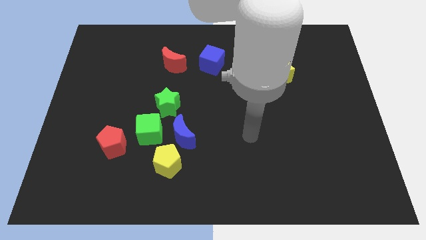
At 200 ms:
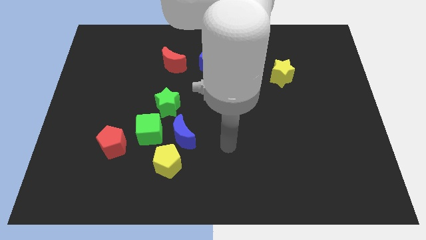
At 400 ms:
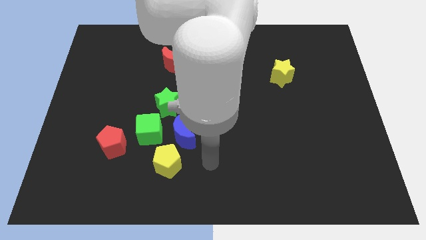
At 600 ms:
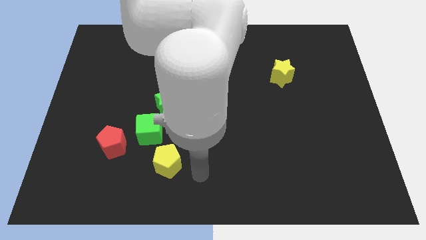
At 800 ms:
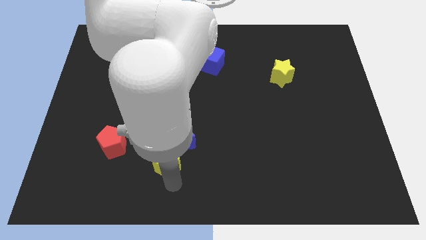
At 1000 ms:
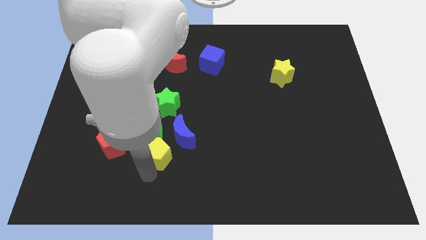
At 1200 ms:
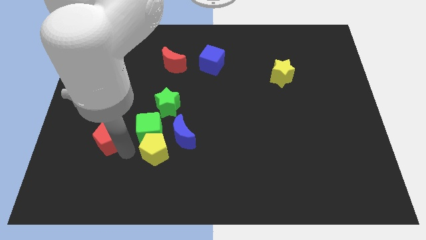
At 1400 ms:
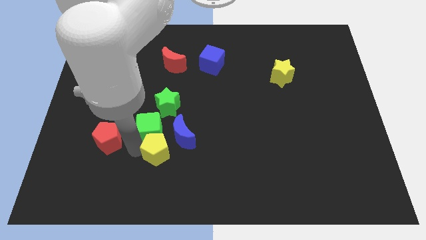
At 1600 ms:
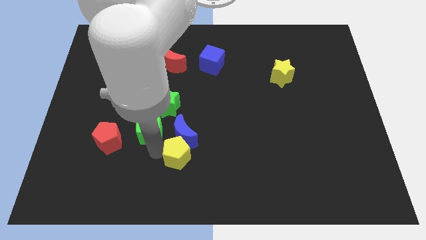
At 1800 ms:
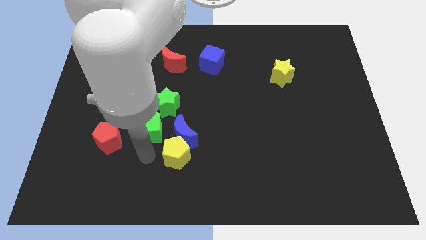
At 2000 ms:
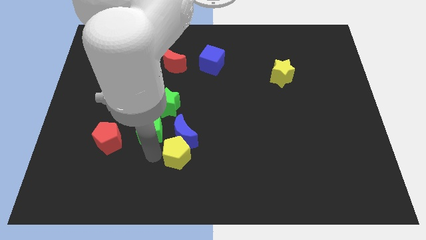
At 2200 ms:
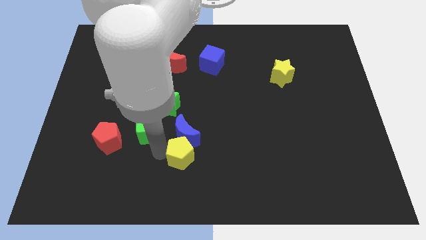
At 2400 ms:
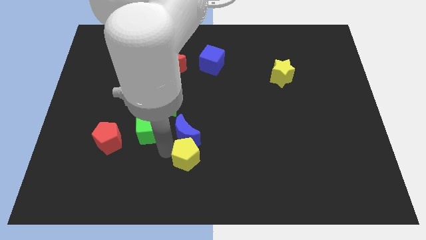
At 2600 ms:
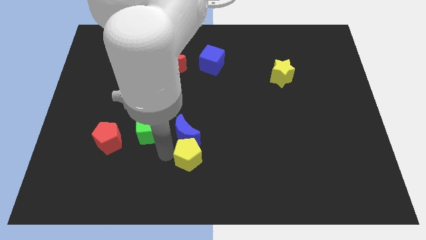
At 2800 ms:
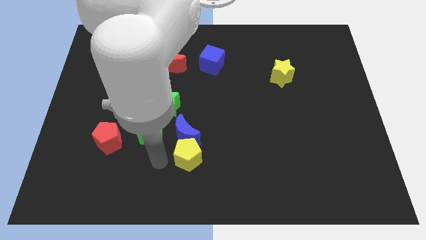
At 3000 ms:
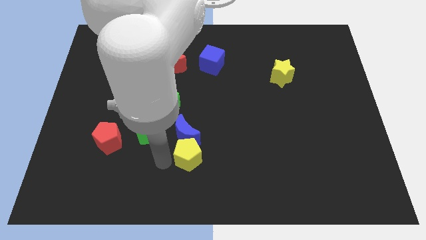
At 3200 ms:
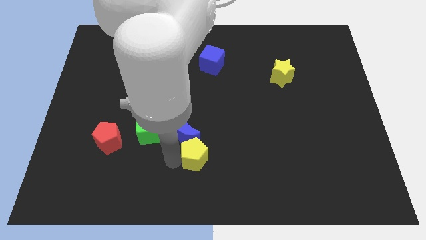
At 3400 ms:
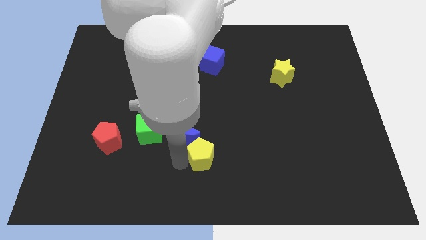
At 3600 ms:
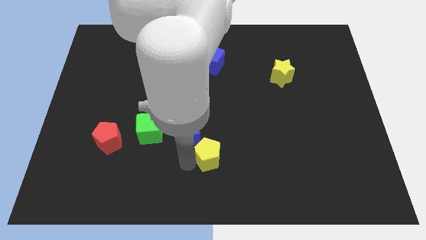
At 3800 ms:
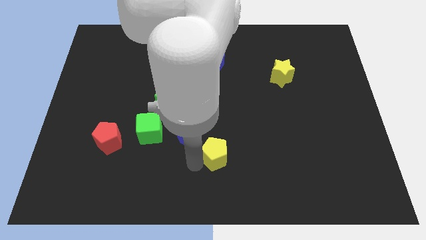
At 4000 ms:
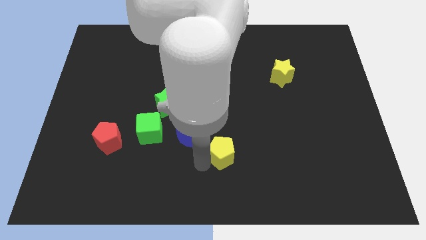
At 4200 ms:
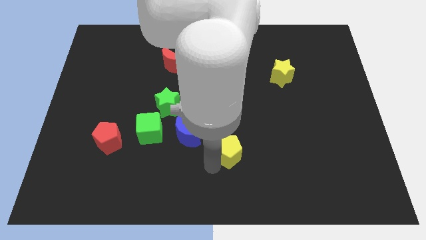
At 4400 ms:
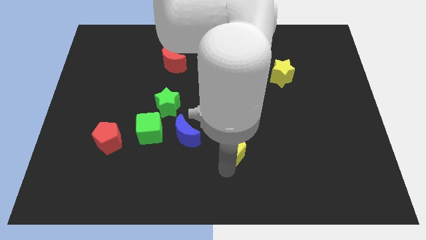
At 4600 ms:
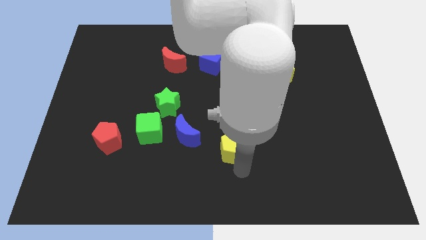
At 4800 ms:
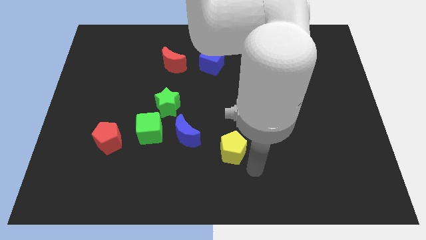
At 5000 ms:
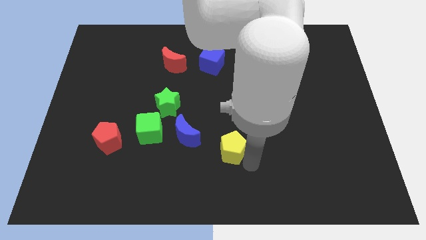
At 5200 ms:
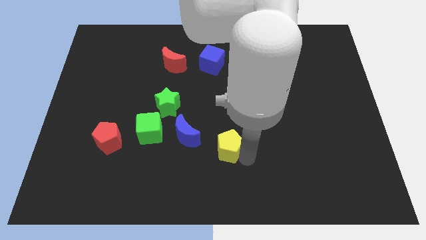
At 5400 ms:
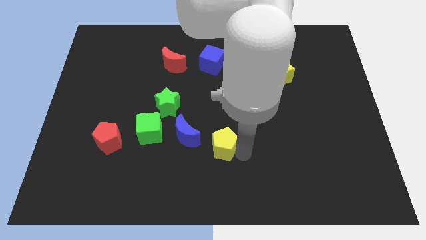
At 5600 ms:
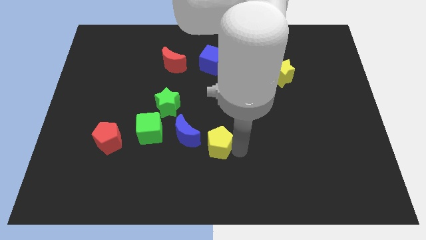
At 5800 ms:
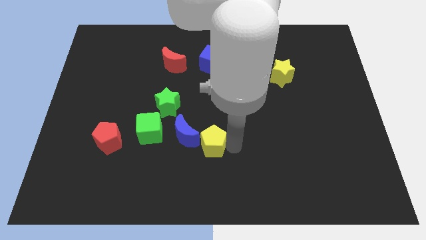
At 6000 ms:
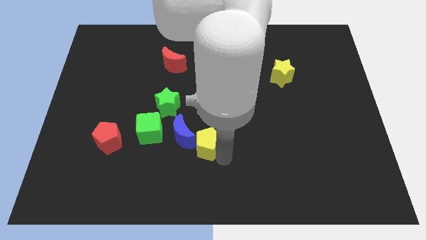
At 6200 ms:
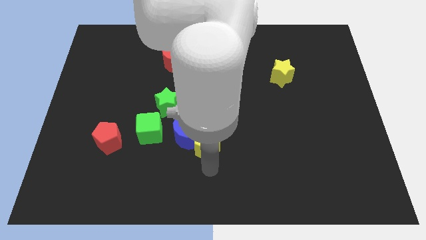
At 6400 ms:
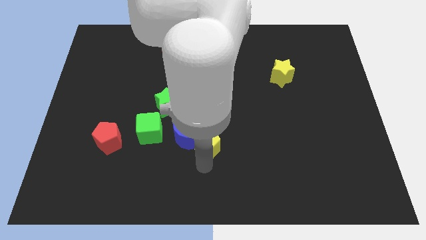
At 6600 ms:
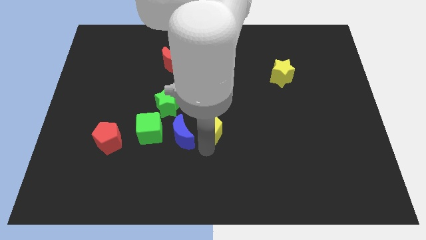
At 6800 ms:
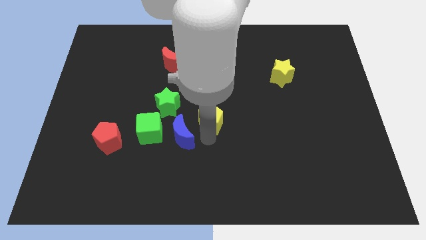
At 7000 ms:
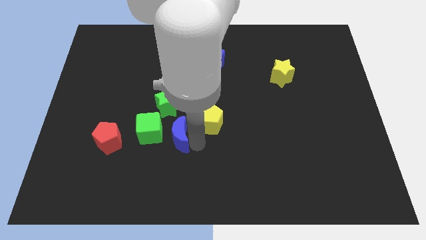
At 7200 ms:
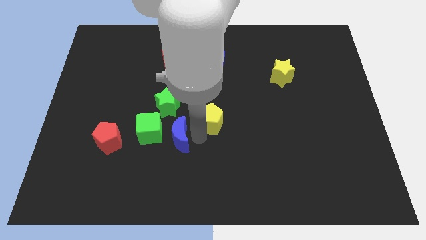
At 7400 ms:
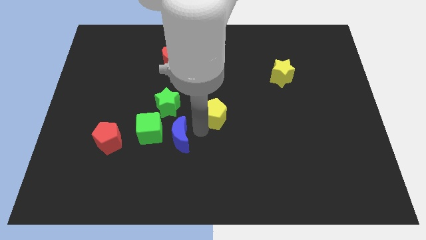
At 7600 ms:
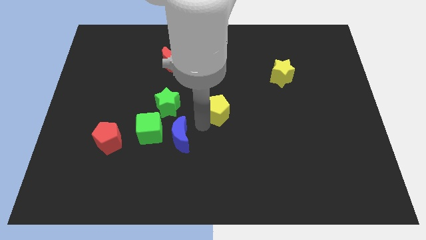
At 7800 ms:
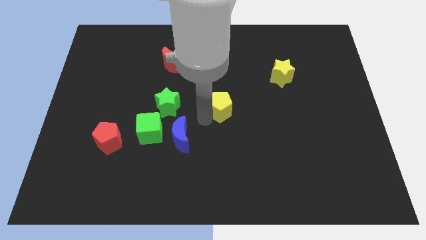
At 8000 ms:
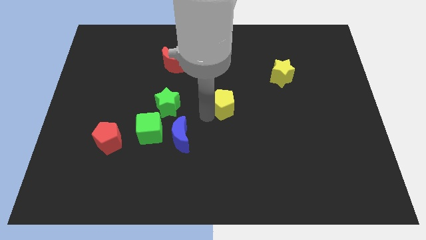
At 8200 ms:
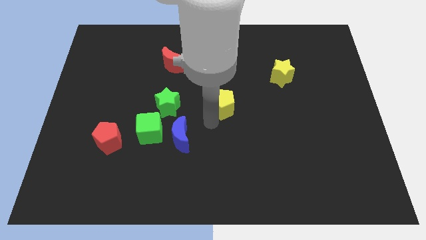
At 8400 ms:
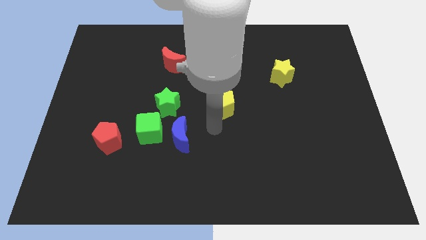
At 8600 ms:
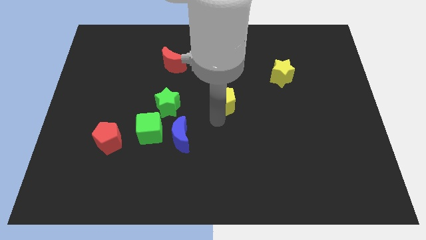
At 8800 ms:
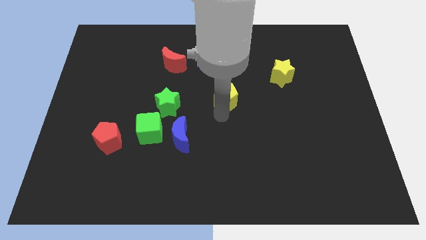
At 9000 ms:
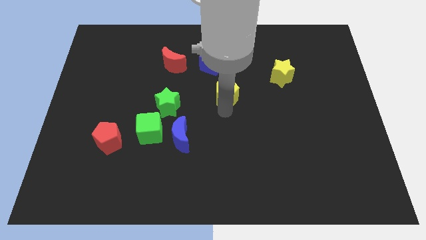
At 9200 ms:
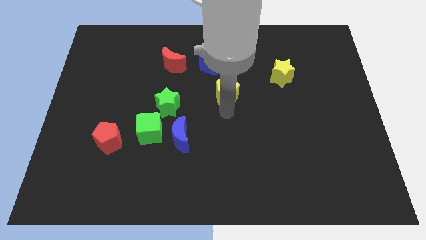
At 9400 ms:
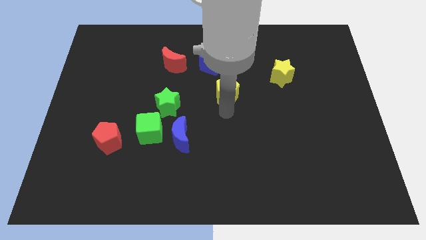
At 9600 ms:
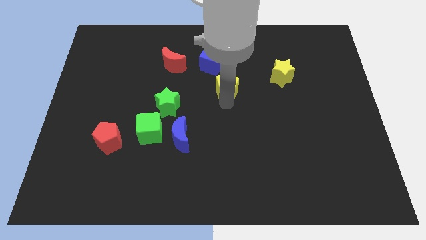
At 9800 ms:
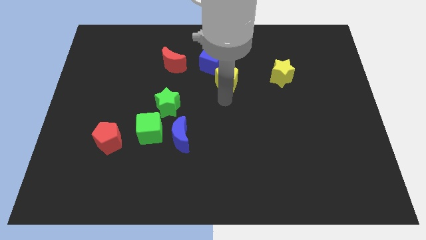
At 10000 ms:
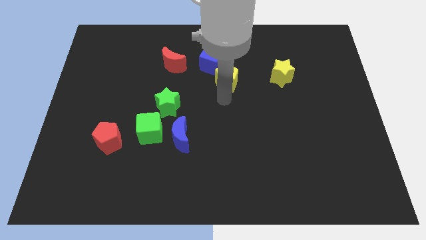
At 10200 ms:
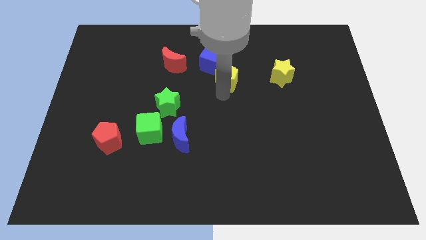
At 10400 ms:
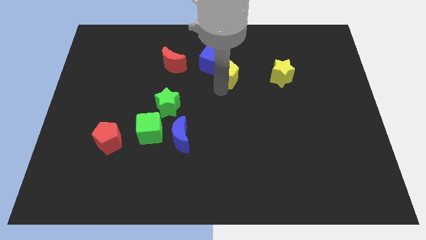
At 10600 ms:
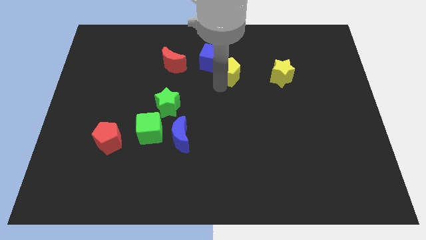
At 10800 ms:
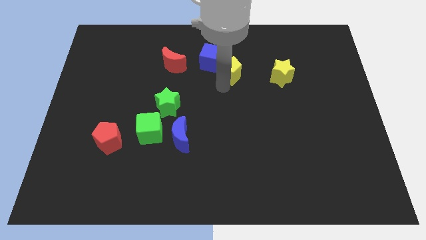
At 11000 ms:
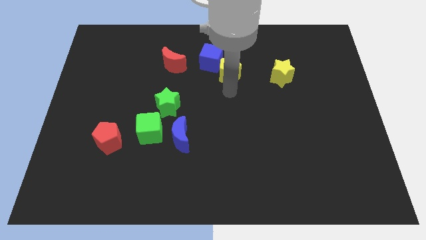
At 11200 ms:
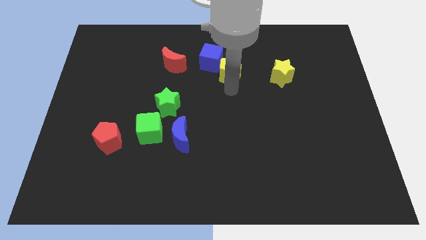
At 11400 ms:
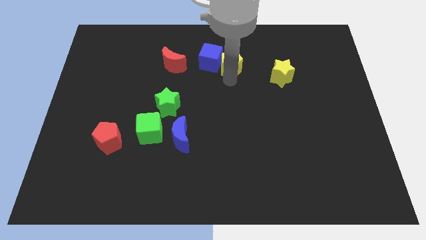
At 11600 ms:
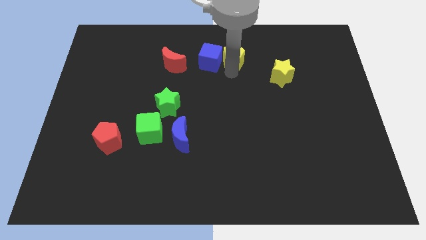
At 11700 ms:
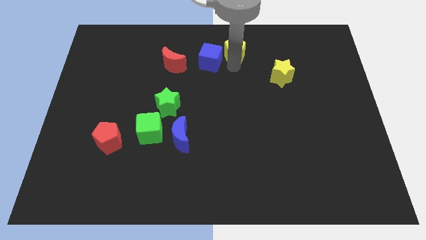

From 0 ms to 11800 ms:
slide the yellow pentagon to the top side
